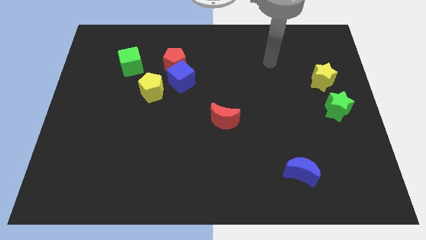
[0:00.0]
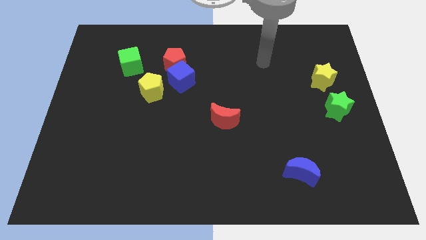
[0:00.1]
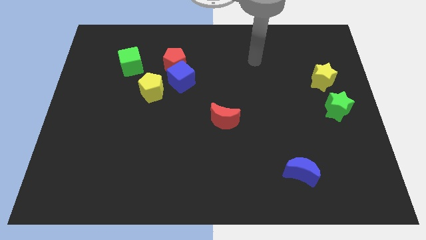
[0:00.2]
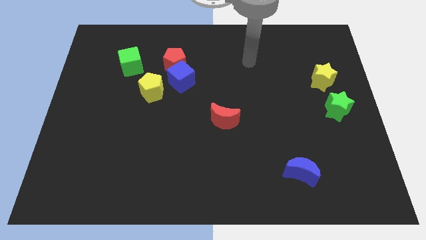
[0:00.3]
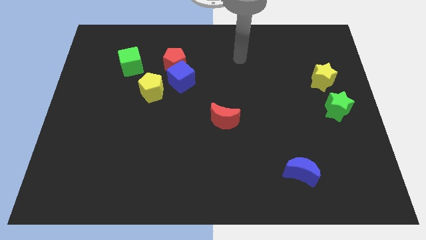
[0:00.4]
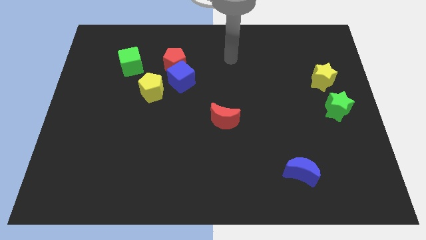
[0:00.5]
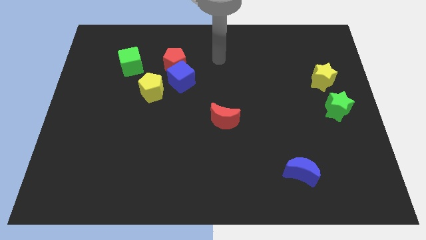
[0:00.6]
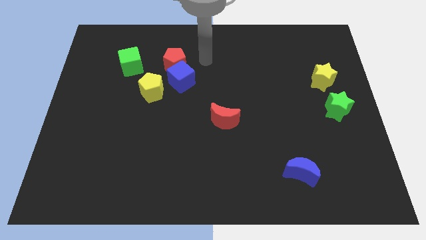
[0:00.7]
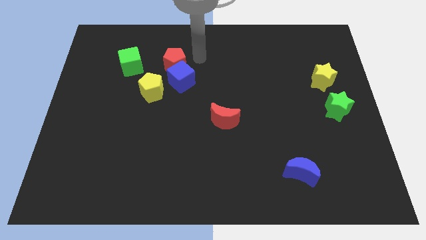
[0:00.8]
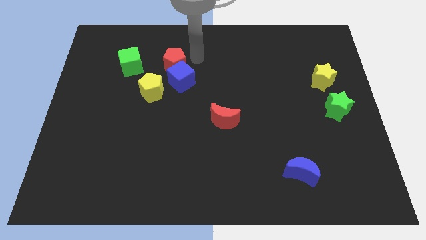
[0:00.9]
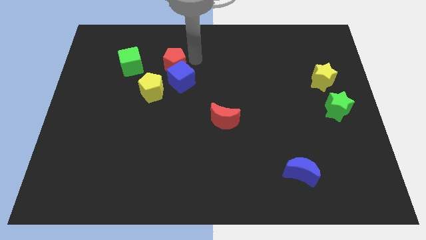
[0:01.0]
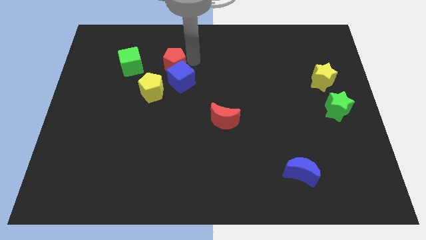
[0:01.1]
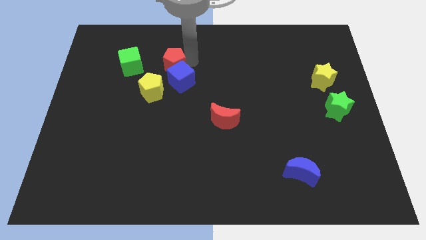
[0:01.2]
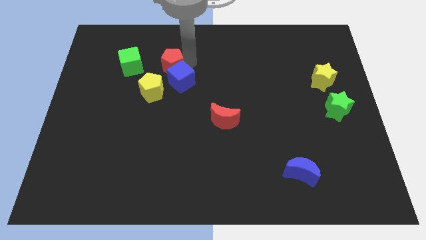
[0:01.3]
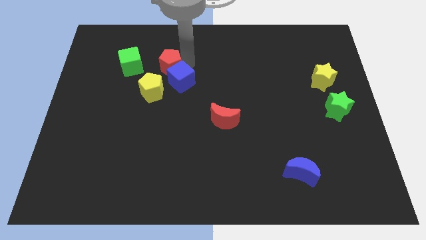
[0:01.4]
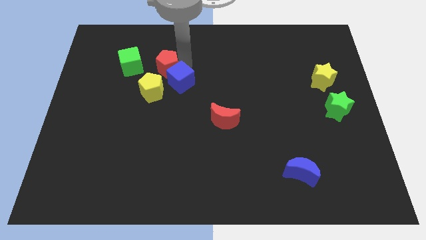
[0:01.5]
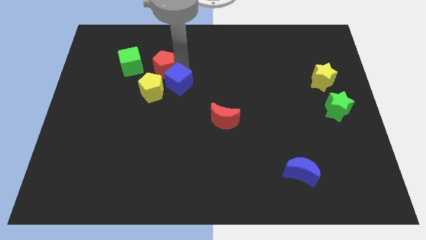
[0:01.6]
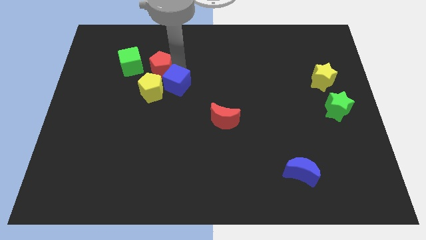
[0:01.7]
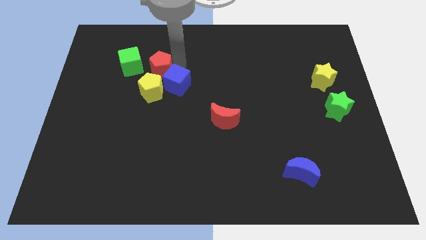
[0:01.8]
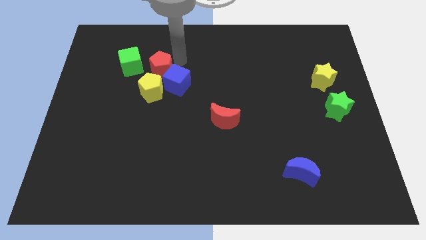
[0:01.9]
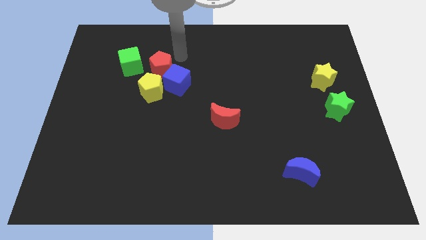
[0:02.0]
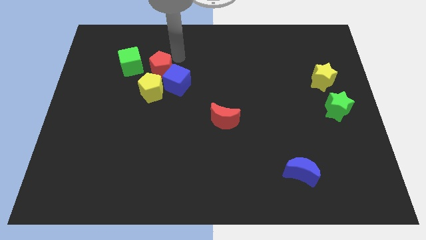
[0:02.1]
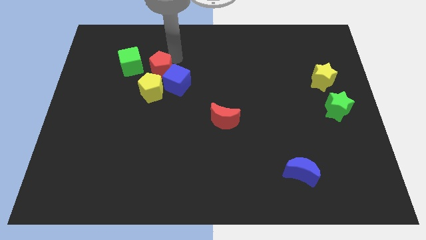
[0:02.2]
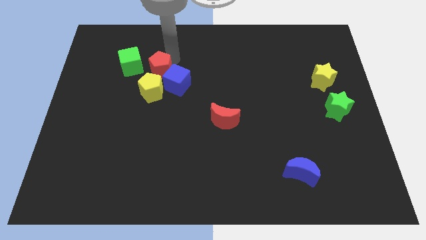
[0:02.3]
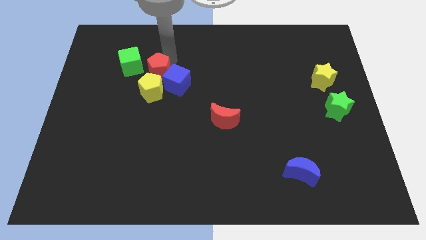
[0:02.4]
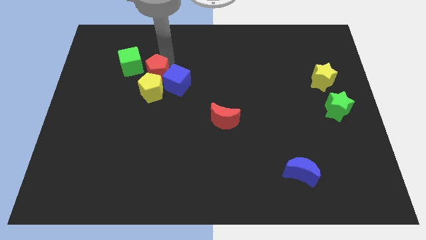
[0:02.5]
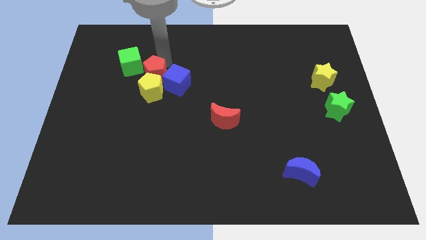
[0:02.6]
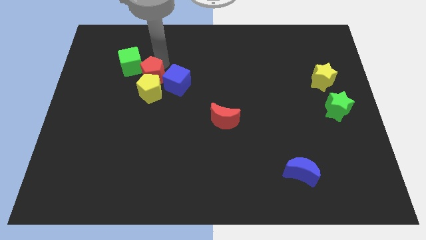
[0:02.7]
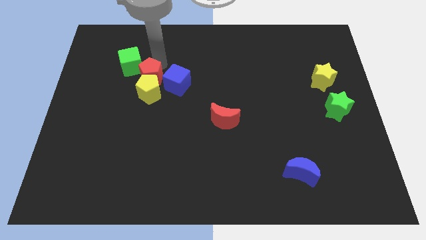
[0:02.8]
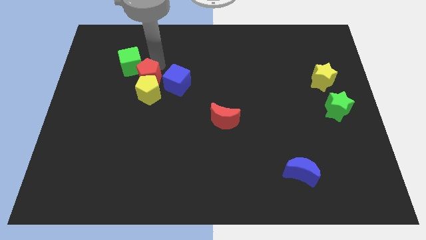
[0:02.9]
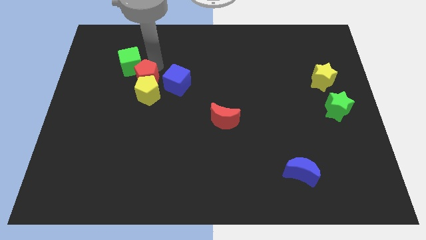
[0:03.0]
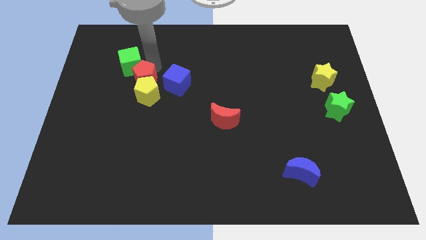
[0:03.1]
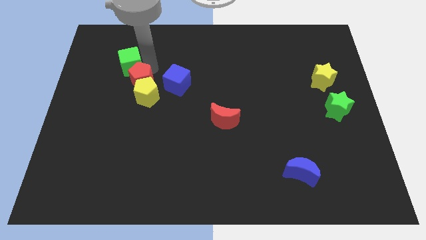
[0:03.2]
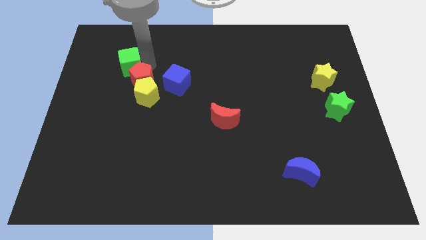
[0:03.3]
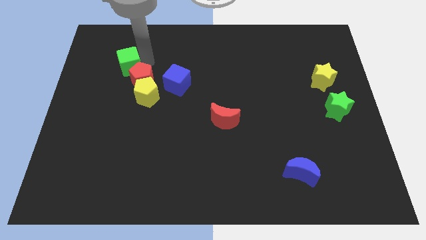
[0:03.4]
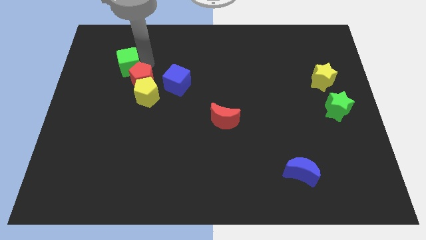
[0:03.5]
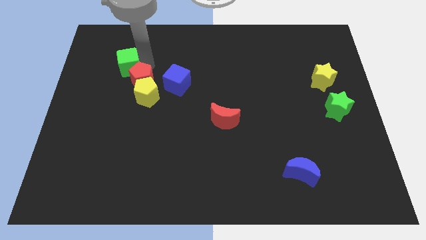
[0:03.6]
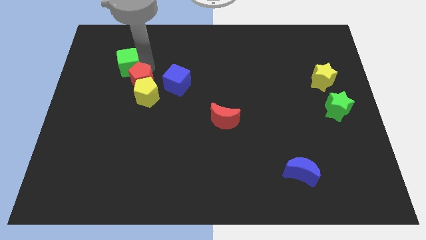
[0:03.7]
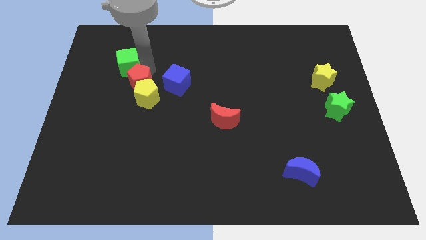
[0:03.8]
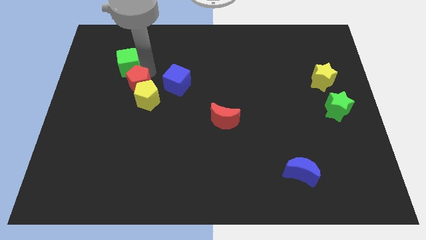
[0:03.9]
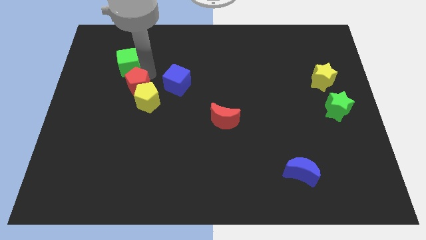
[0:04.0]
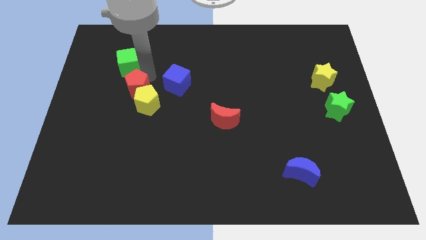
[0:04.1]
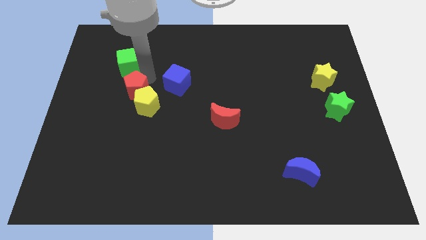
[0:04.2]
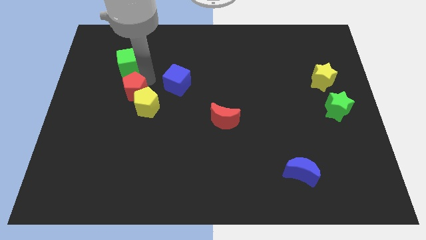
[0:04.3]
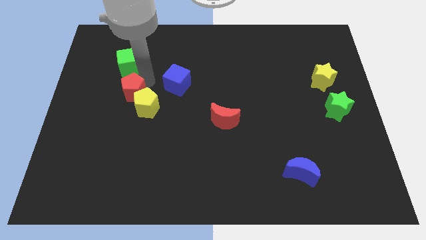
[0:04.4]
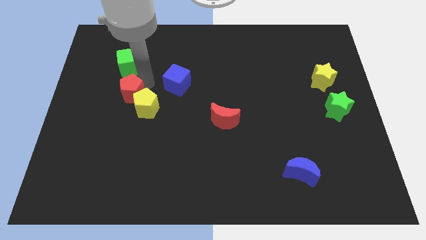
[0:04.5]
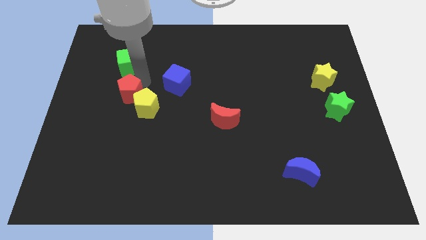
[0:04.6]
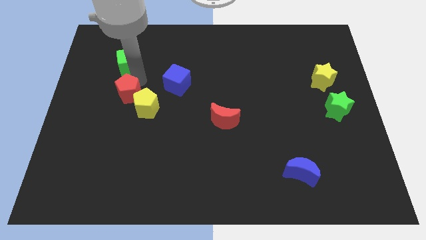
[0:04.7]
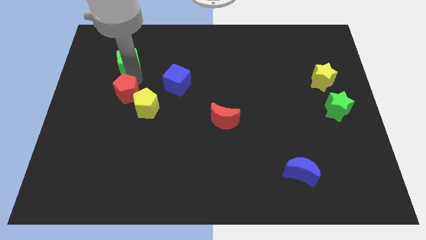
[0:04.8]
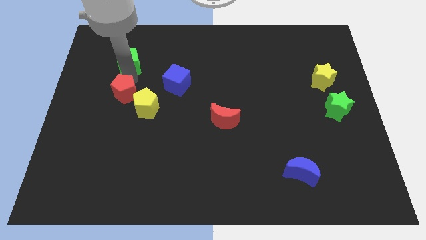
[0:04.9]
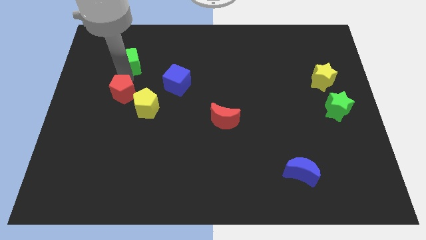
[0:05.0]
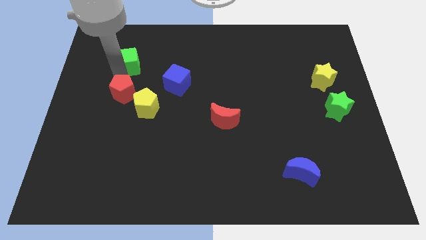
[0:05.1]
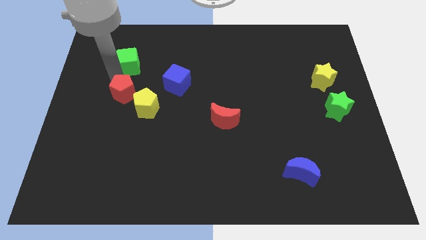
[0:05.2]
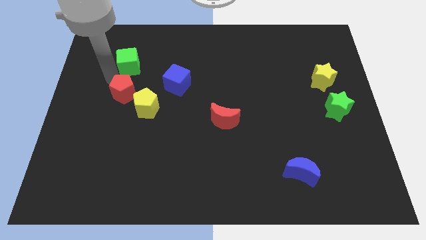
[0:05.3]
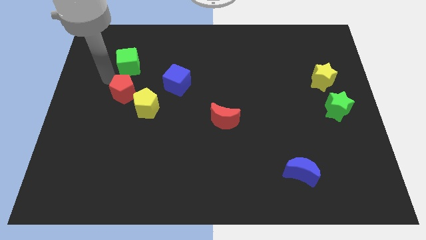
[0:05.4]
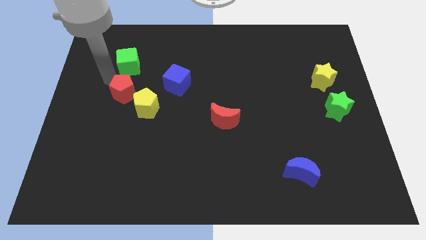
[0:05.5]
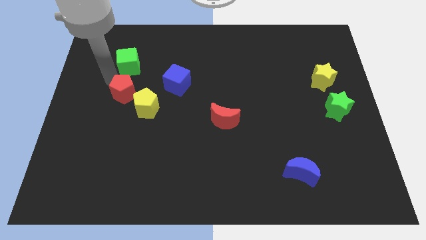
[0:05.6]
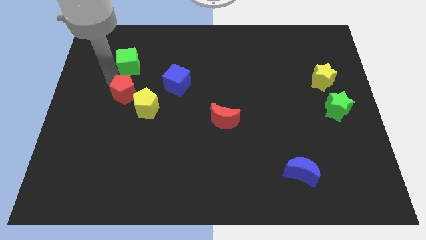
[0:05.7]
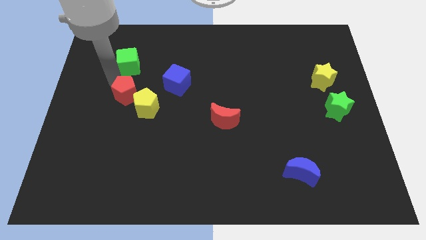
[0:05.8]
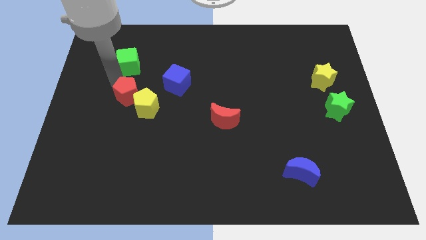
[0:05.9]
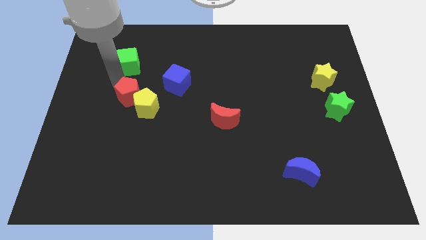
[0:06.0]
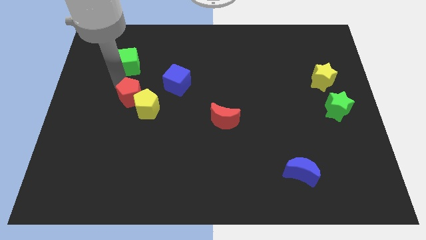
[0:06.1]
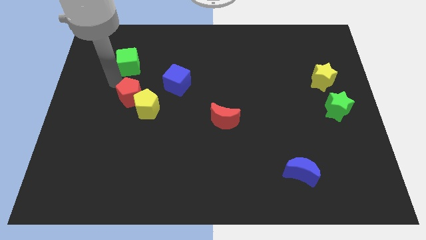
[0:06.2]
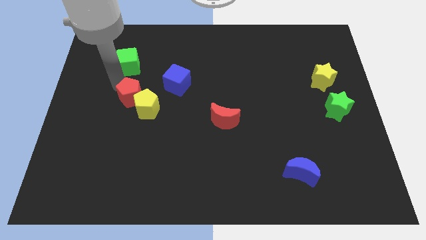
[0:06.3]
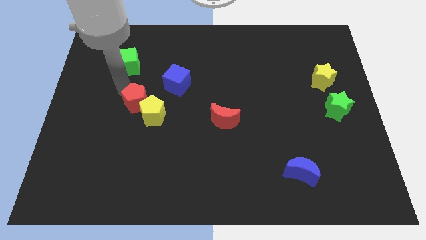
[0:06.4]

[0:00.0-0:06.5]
slide the red pentagon downwards a little bit

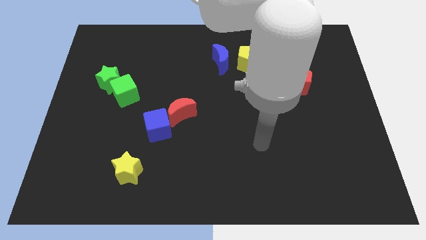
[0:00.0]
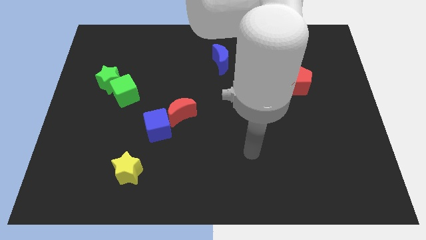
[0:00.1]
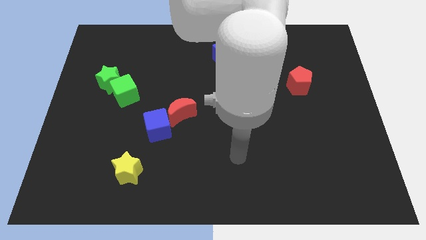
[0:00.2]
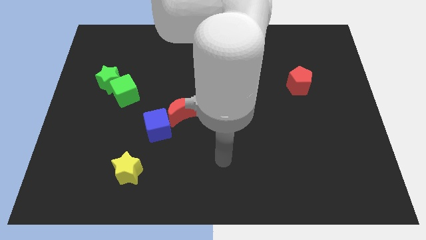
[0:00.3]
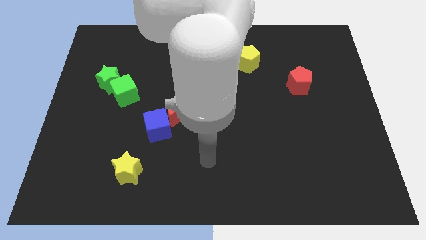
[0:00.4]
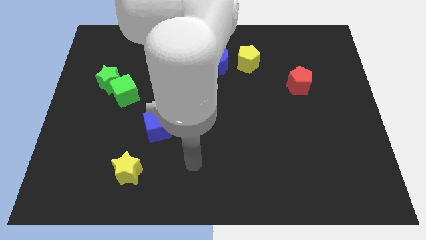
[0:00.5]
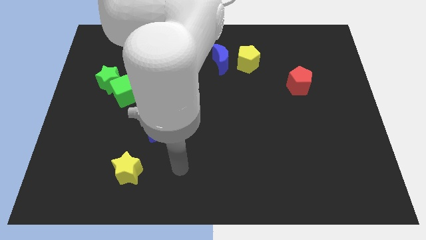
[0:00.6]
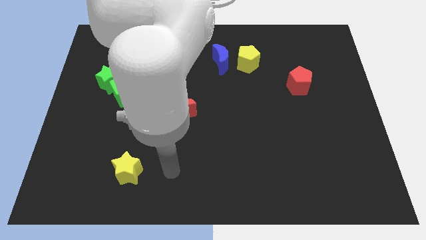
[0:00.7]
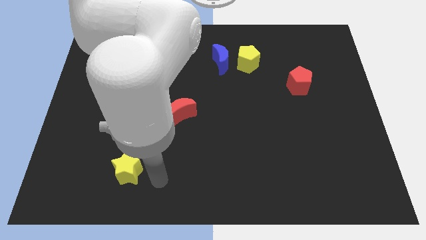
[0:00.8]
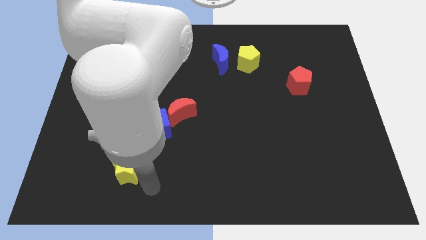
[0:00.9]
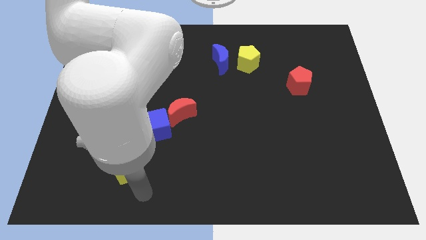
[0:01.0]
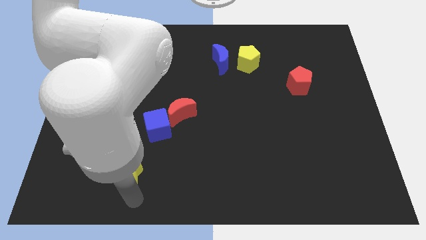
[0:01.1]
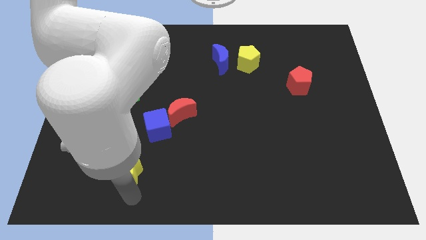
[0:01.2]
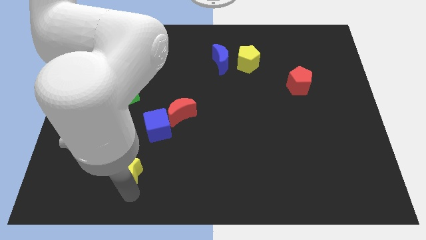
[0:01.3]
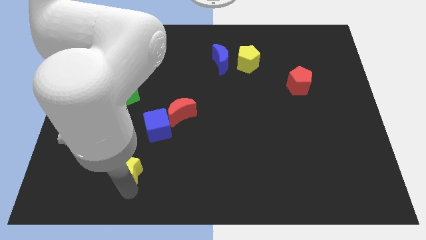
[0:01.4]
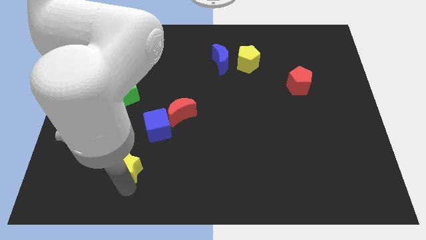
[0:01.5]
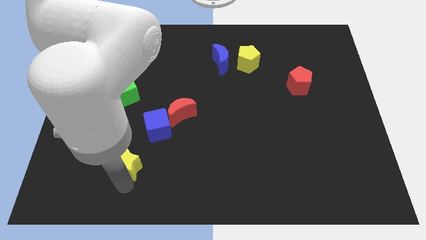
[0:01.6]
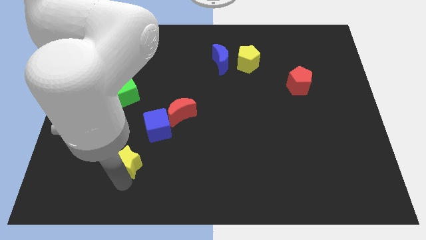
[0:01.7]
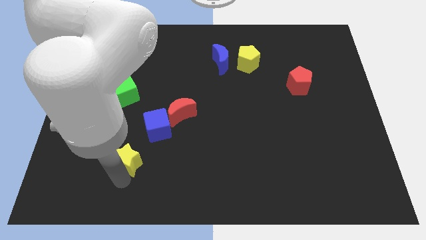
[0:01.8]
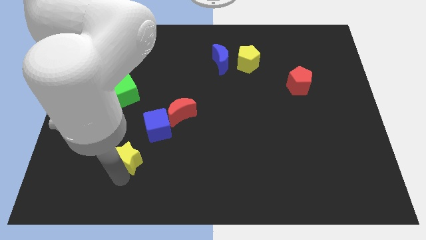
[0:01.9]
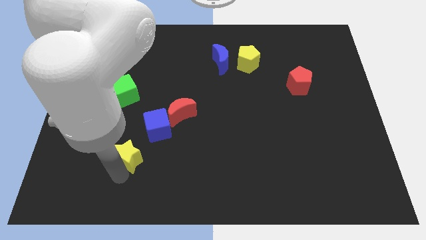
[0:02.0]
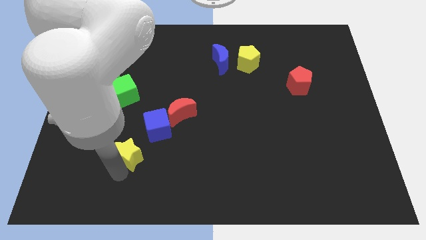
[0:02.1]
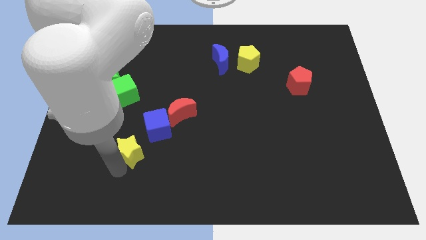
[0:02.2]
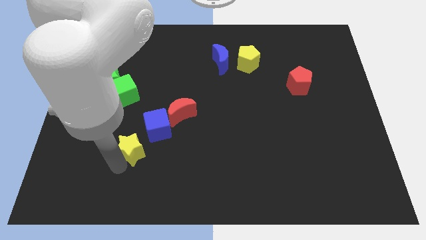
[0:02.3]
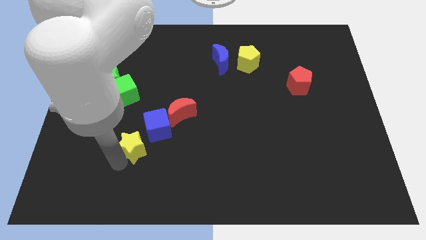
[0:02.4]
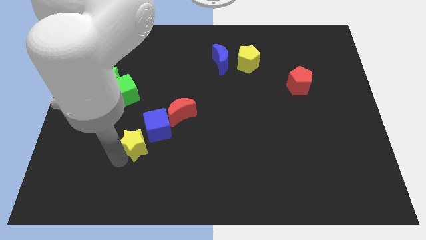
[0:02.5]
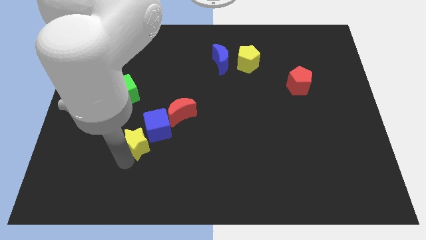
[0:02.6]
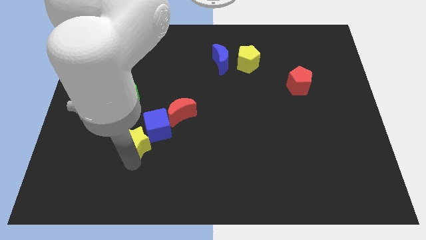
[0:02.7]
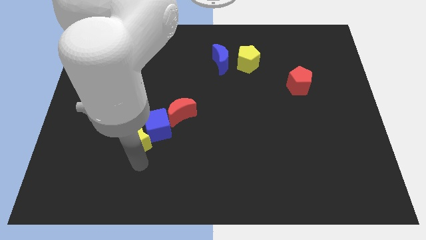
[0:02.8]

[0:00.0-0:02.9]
move the yellow star up slightly
